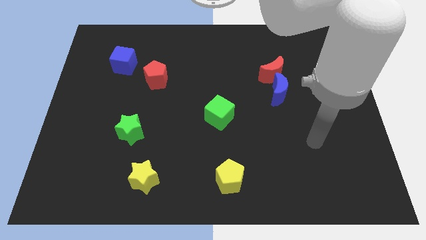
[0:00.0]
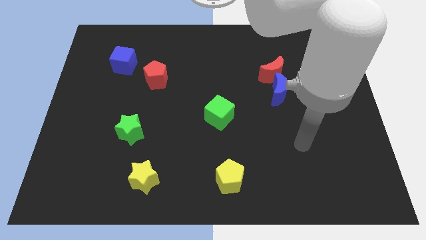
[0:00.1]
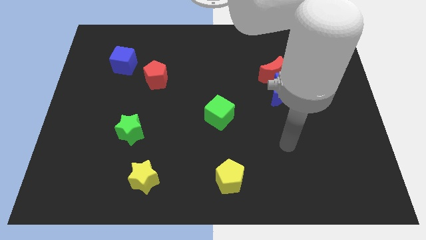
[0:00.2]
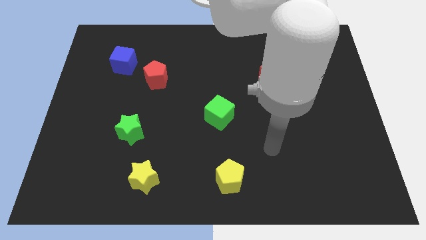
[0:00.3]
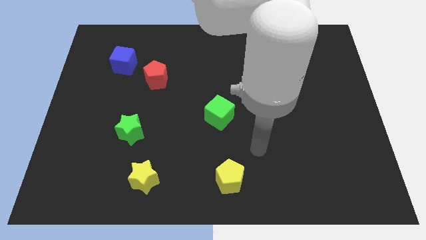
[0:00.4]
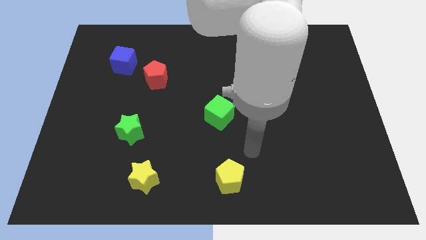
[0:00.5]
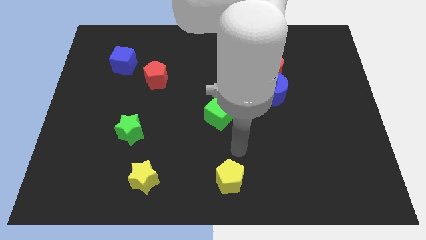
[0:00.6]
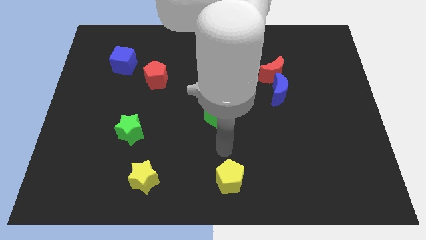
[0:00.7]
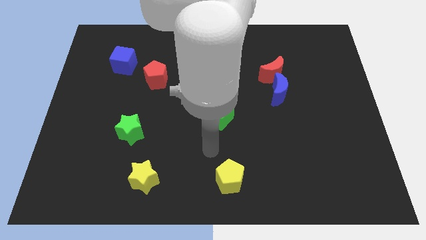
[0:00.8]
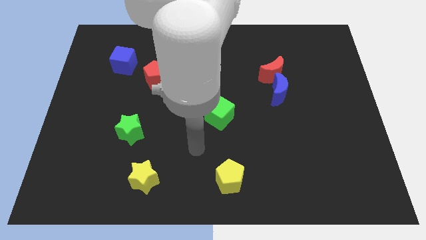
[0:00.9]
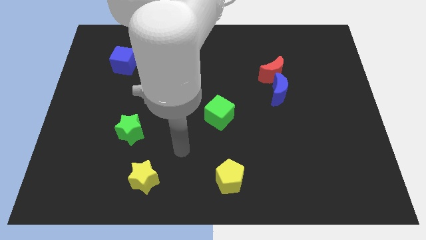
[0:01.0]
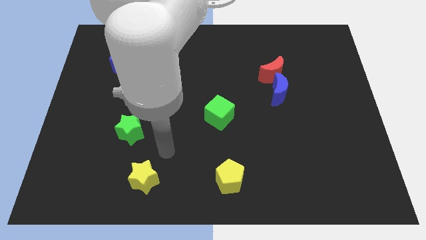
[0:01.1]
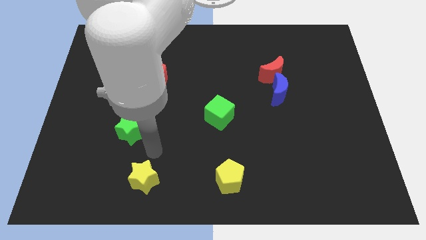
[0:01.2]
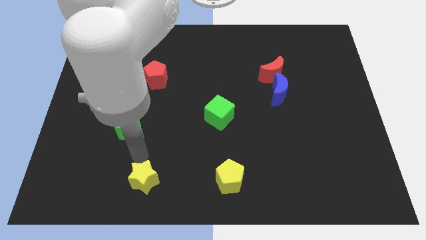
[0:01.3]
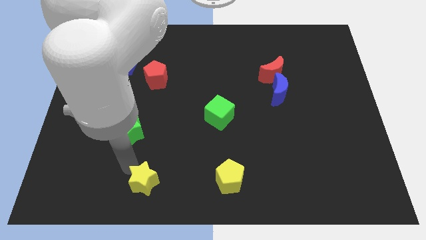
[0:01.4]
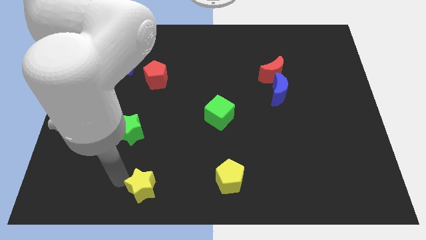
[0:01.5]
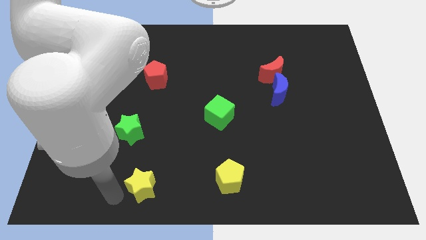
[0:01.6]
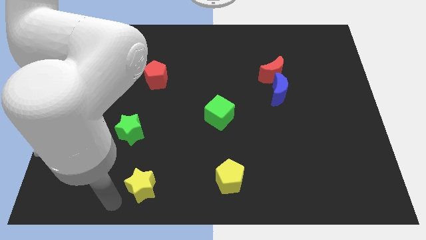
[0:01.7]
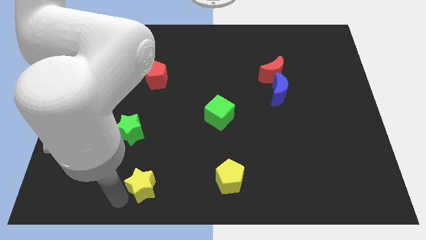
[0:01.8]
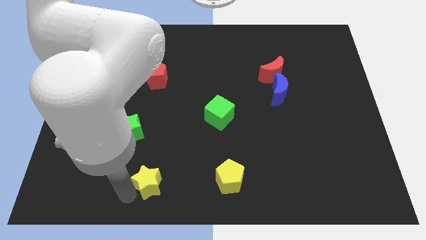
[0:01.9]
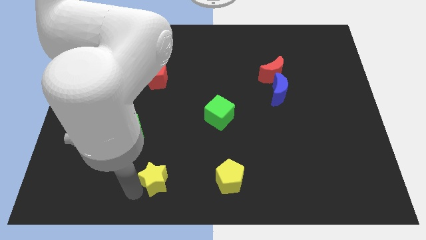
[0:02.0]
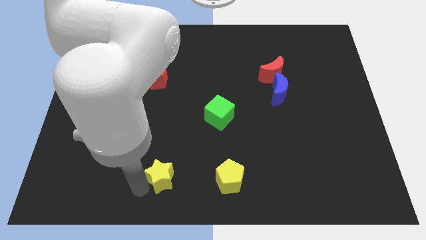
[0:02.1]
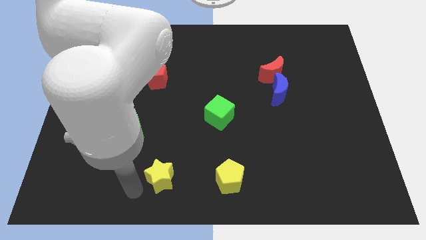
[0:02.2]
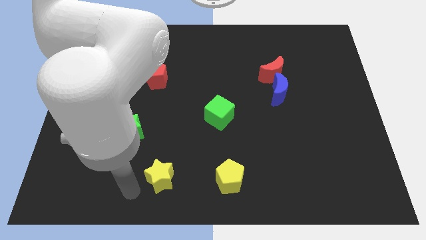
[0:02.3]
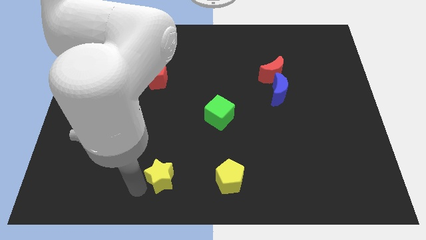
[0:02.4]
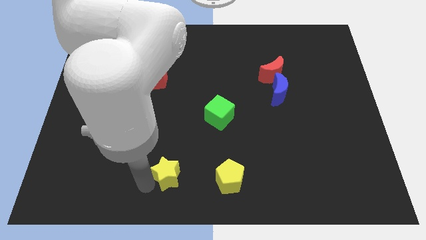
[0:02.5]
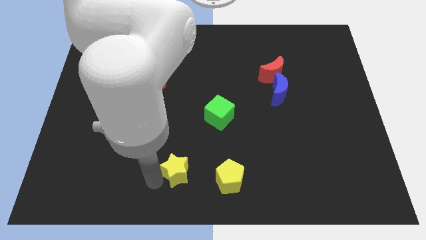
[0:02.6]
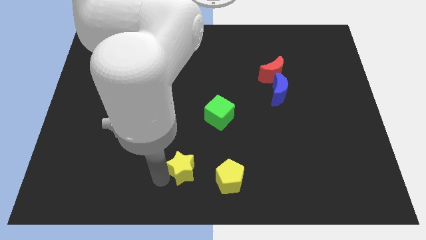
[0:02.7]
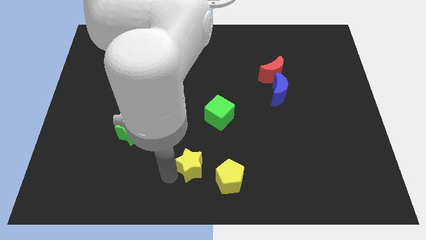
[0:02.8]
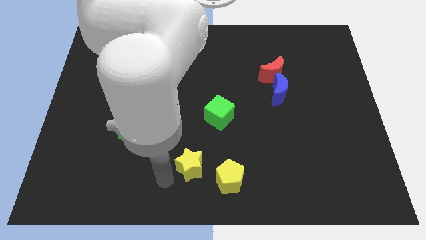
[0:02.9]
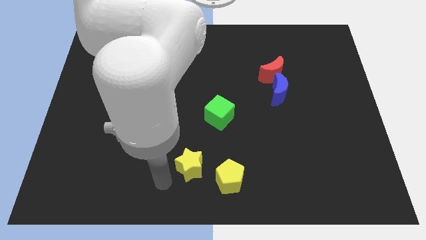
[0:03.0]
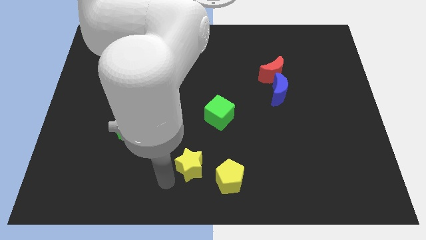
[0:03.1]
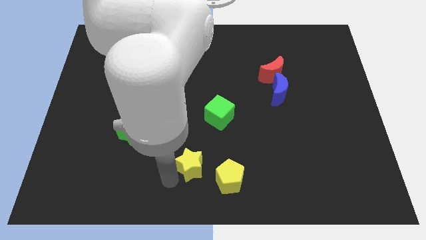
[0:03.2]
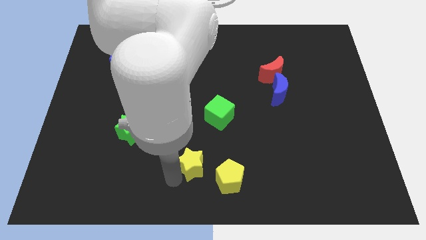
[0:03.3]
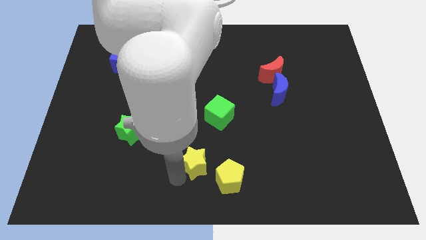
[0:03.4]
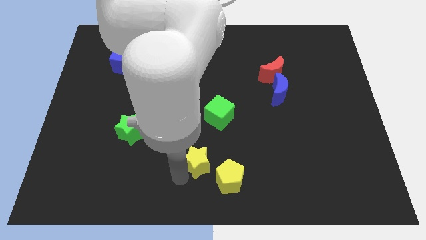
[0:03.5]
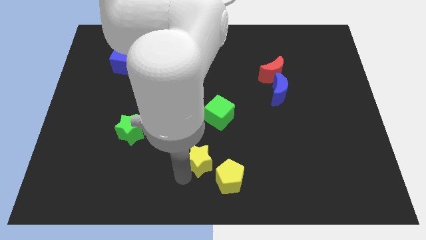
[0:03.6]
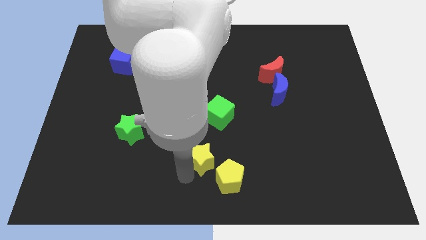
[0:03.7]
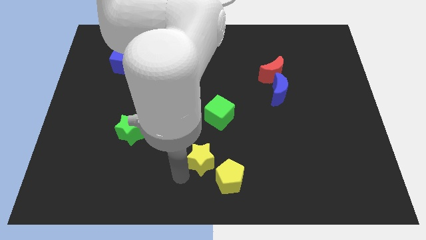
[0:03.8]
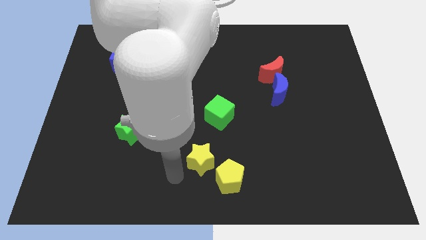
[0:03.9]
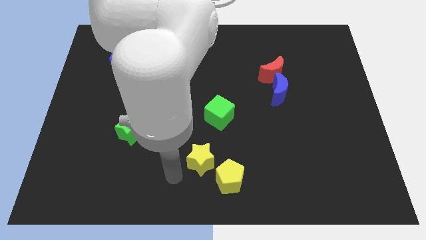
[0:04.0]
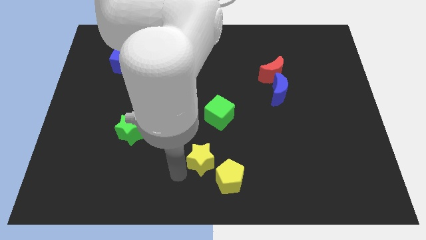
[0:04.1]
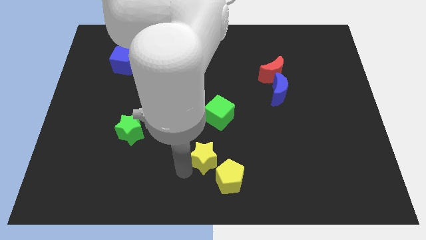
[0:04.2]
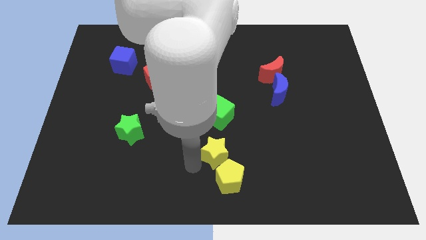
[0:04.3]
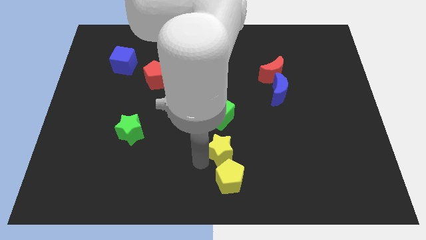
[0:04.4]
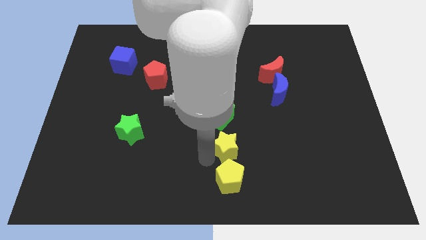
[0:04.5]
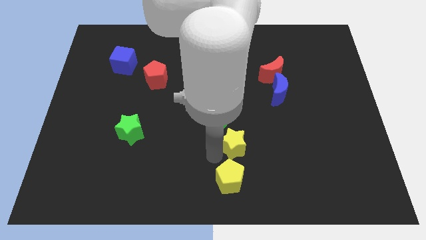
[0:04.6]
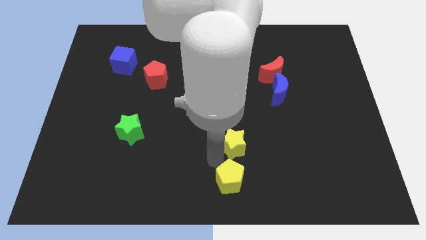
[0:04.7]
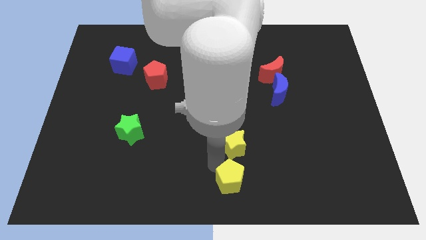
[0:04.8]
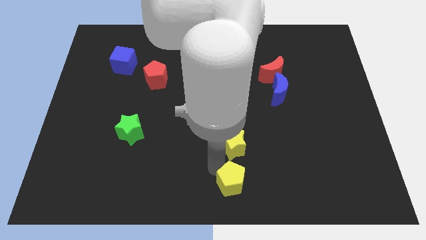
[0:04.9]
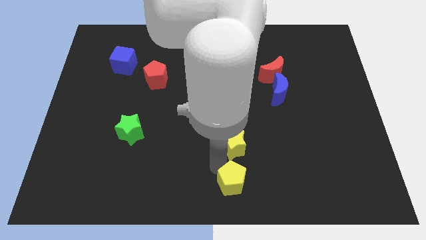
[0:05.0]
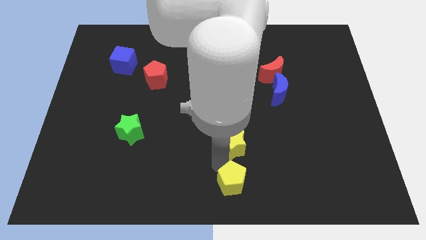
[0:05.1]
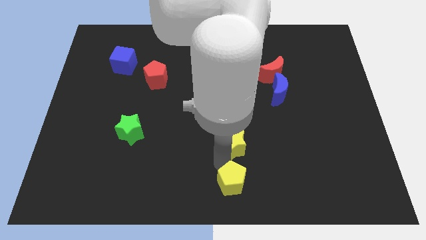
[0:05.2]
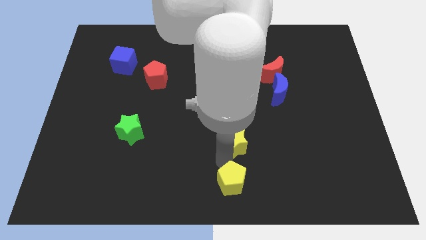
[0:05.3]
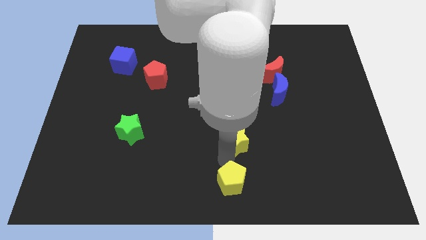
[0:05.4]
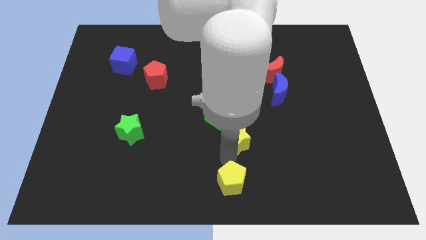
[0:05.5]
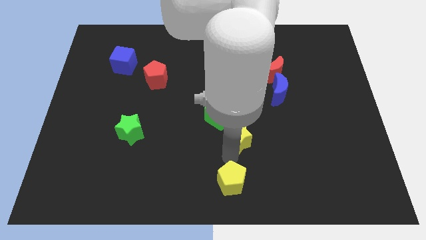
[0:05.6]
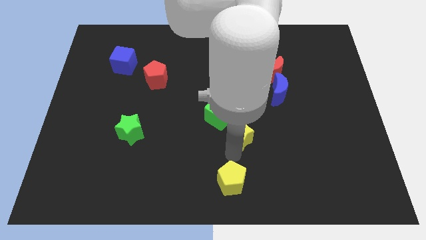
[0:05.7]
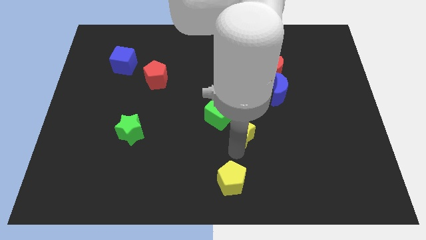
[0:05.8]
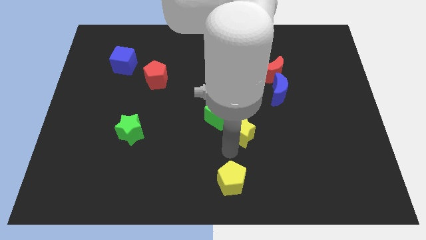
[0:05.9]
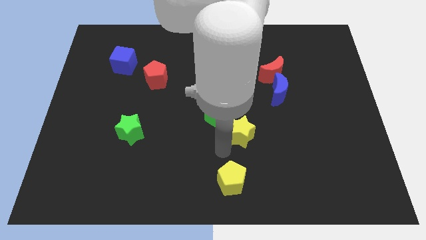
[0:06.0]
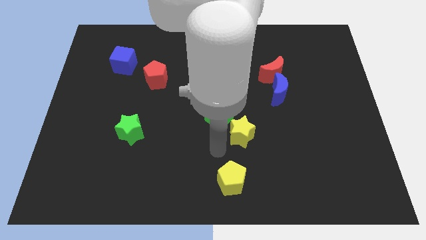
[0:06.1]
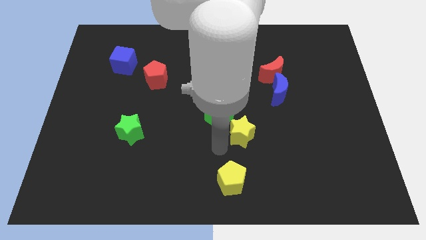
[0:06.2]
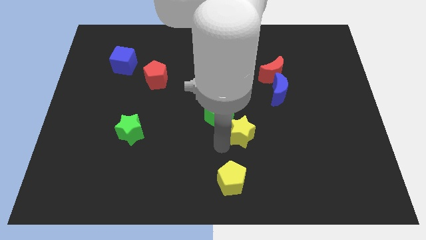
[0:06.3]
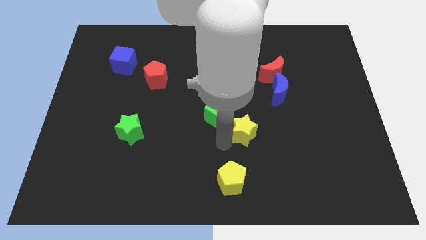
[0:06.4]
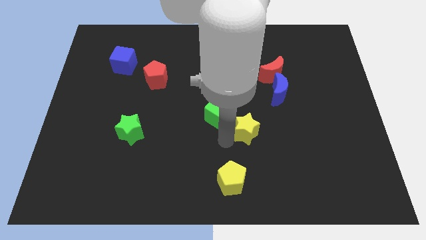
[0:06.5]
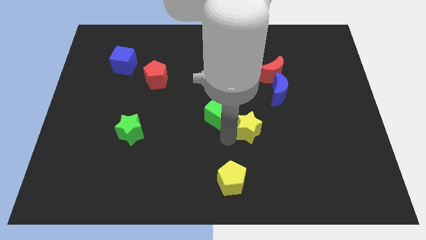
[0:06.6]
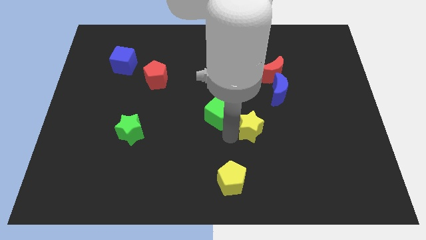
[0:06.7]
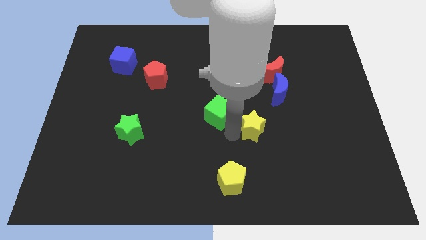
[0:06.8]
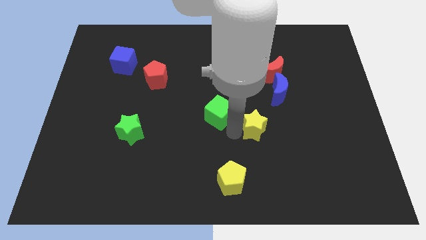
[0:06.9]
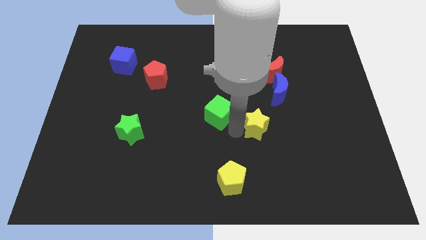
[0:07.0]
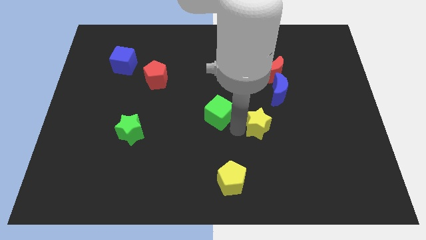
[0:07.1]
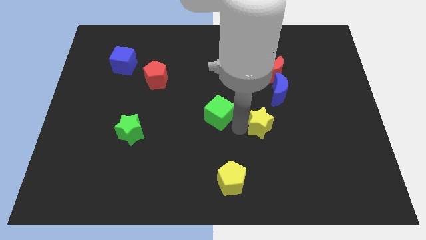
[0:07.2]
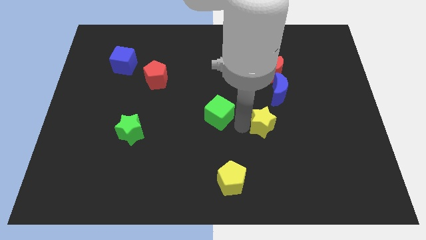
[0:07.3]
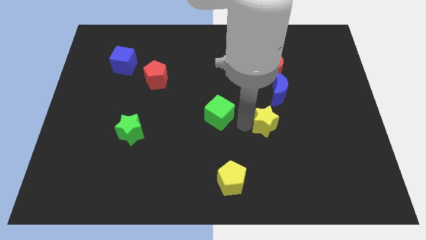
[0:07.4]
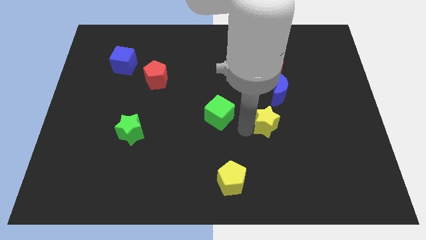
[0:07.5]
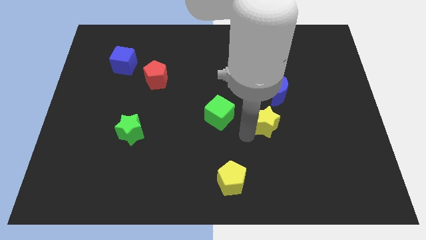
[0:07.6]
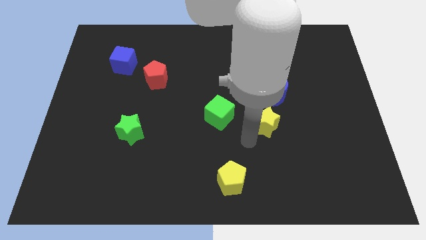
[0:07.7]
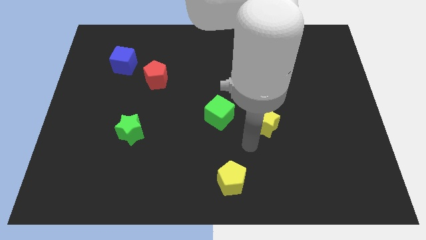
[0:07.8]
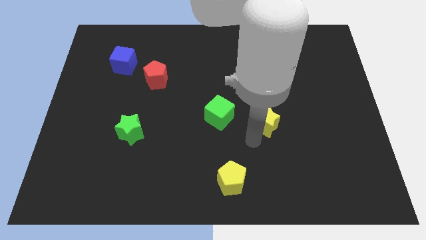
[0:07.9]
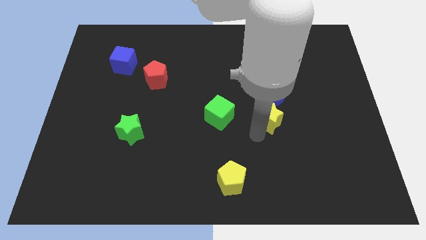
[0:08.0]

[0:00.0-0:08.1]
push the yellow star to the bottom of the red moon
